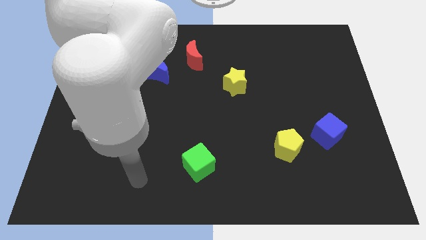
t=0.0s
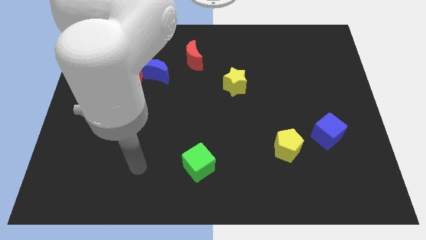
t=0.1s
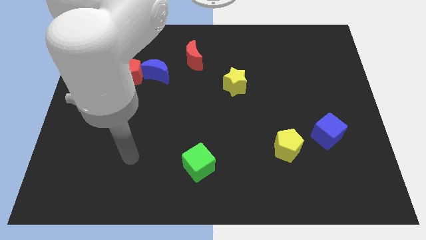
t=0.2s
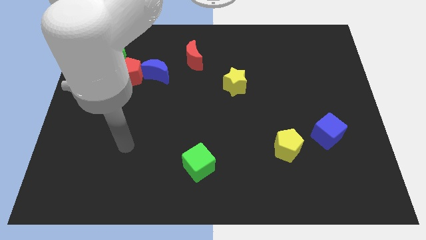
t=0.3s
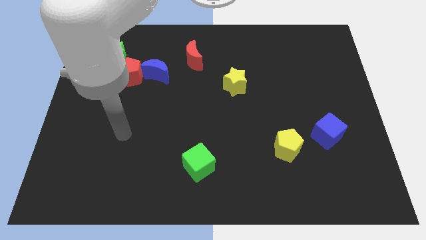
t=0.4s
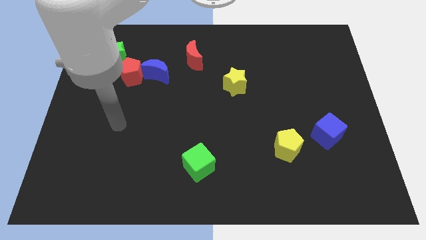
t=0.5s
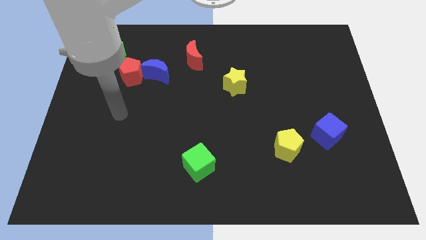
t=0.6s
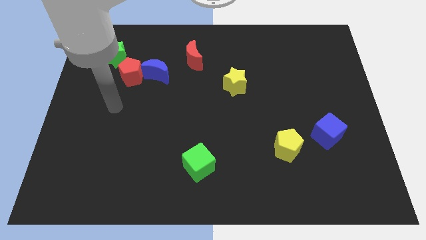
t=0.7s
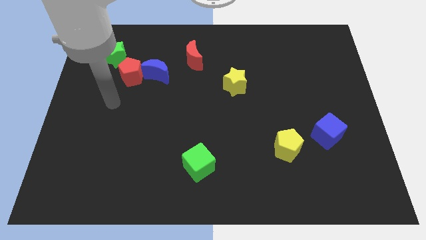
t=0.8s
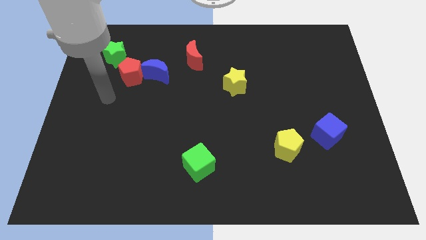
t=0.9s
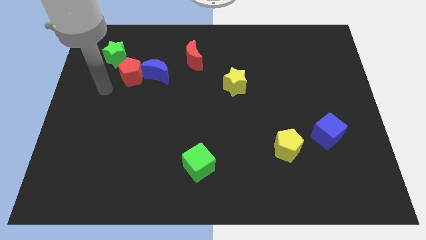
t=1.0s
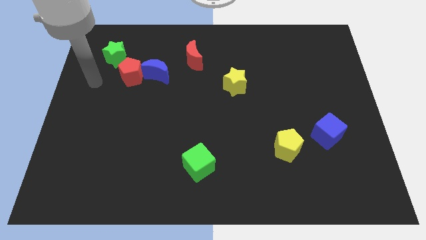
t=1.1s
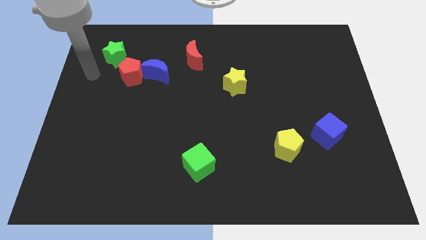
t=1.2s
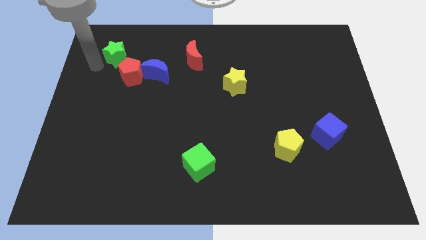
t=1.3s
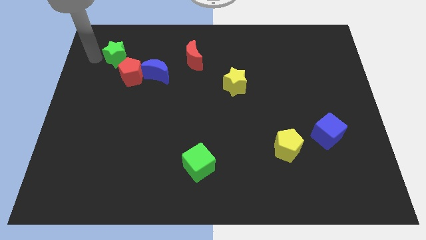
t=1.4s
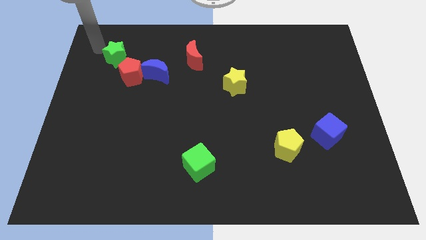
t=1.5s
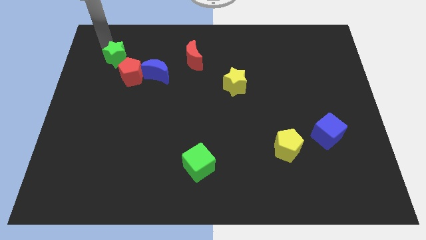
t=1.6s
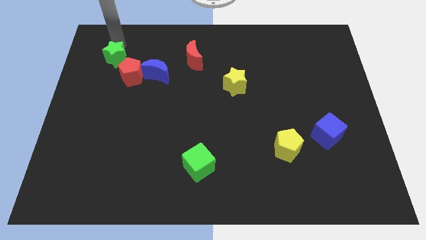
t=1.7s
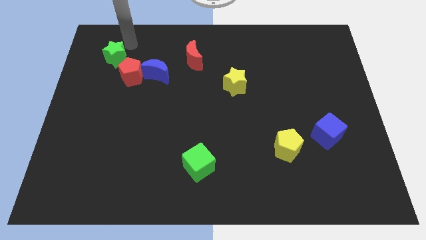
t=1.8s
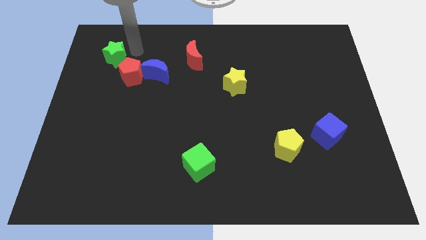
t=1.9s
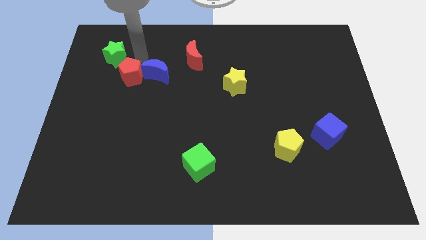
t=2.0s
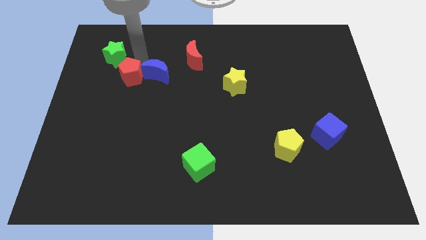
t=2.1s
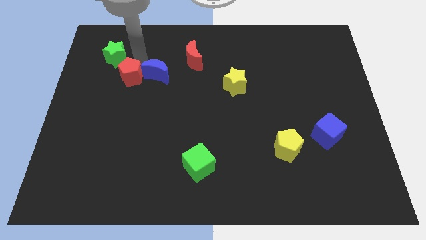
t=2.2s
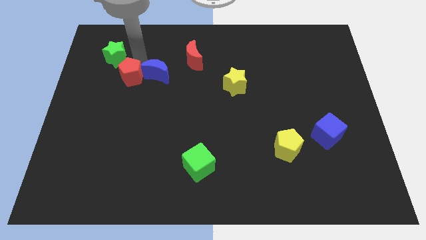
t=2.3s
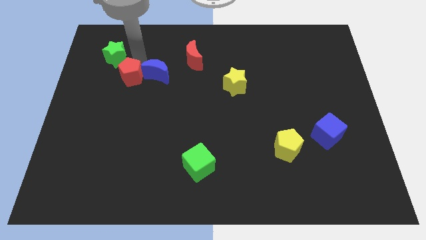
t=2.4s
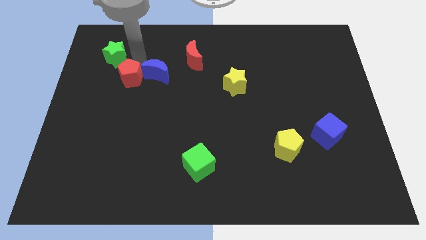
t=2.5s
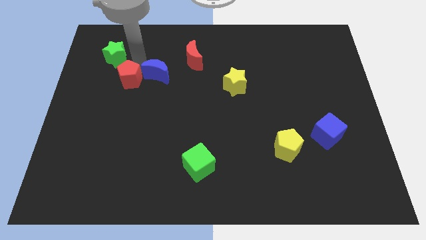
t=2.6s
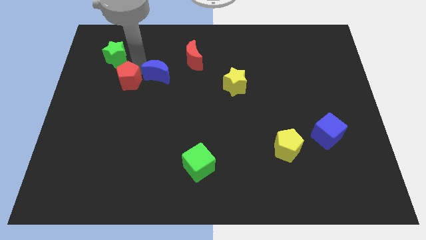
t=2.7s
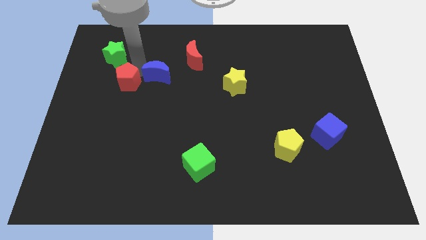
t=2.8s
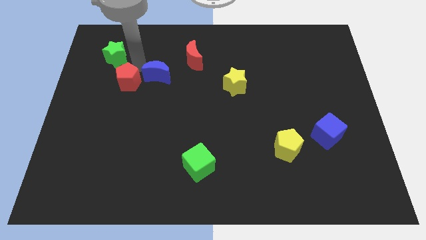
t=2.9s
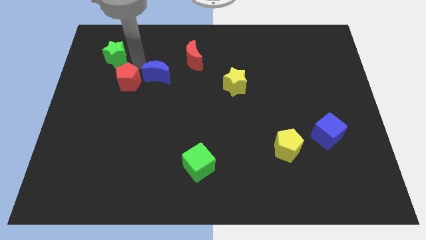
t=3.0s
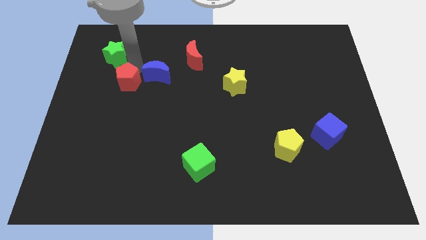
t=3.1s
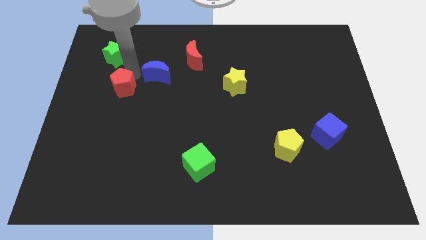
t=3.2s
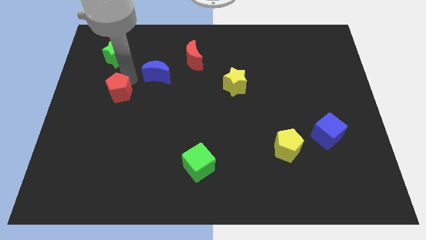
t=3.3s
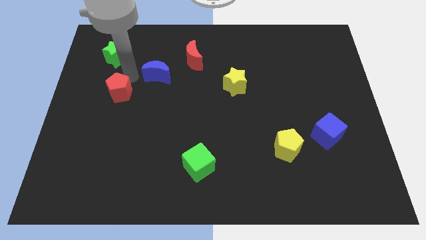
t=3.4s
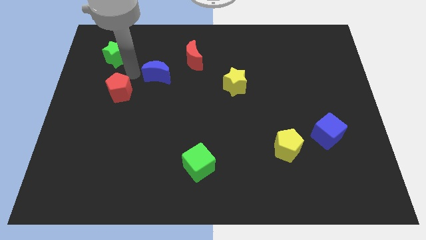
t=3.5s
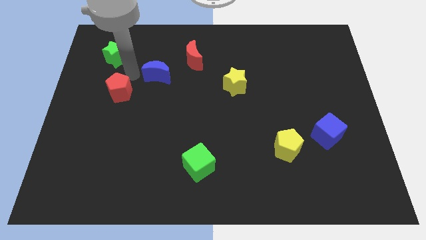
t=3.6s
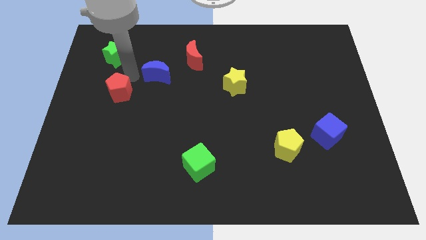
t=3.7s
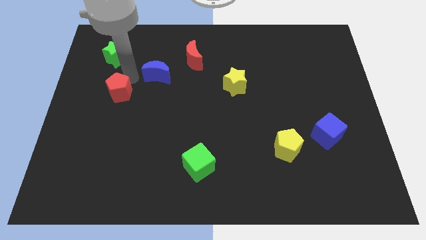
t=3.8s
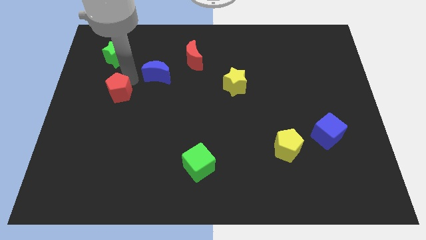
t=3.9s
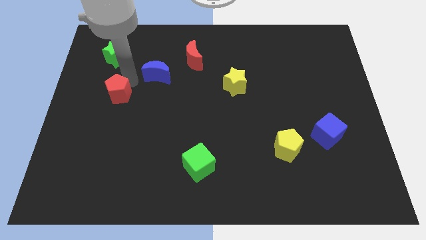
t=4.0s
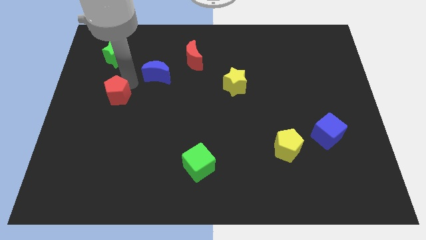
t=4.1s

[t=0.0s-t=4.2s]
move the red pentagon away from the blue moon and green star

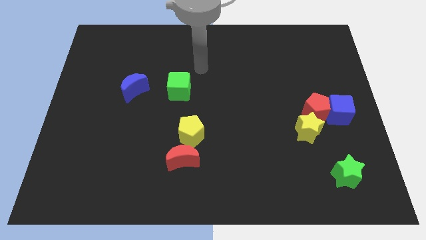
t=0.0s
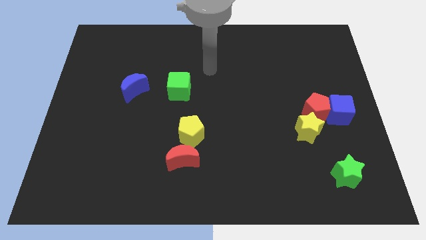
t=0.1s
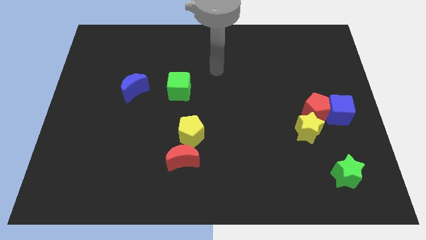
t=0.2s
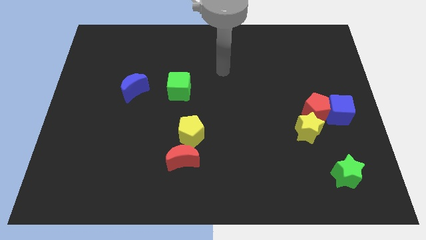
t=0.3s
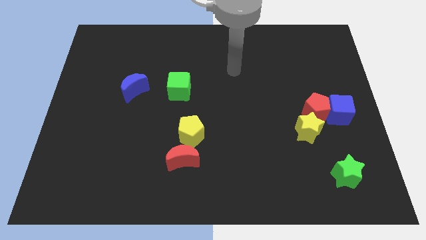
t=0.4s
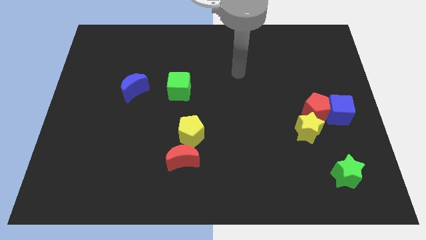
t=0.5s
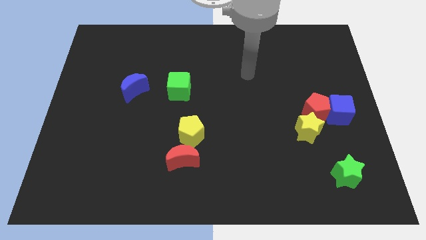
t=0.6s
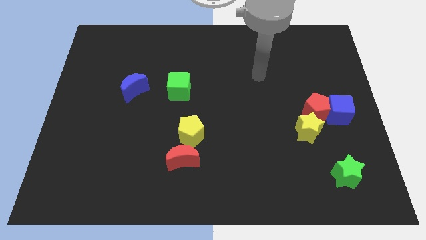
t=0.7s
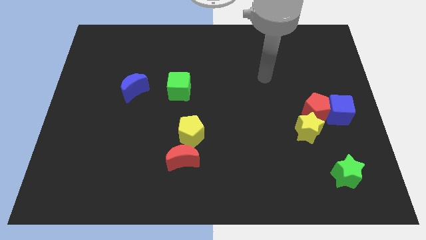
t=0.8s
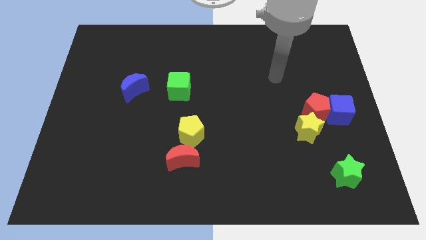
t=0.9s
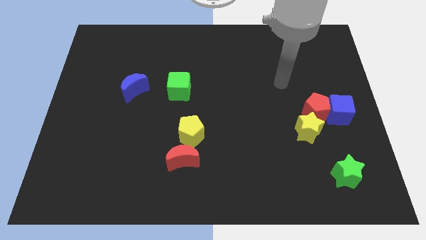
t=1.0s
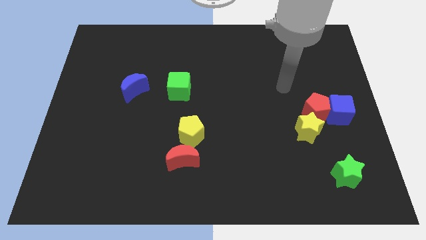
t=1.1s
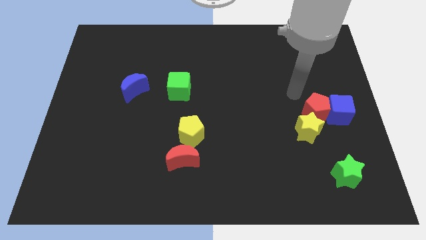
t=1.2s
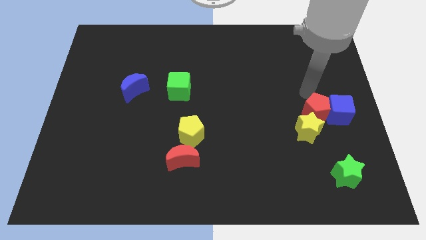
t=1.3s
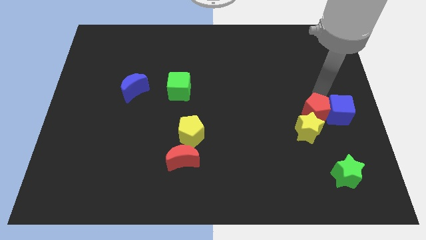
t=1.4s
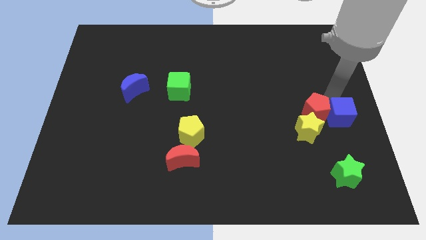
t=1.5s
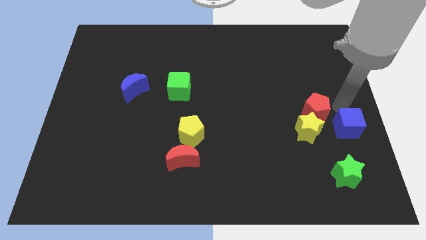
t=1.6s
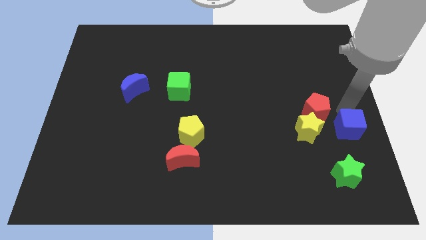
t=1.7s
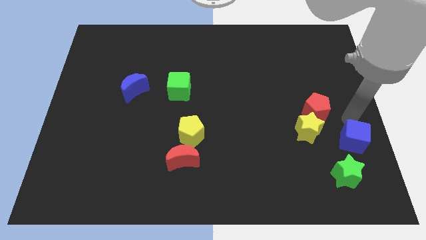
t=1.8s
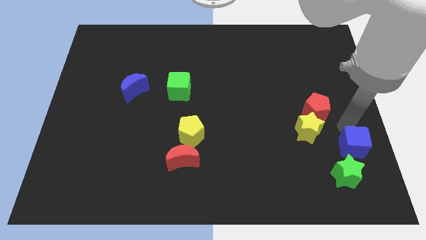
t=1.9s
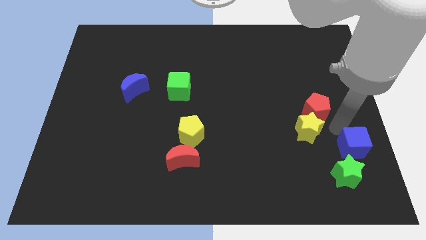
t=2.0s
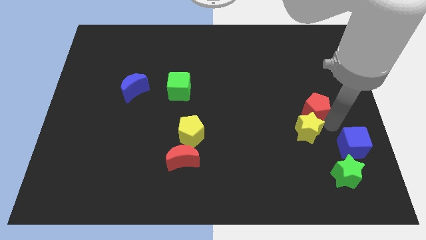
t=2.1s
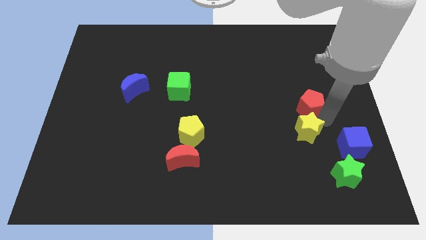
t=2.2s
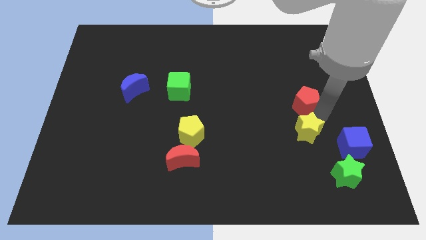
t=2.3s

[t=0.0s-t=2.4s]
pull the red pentagon apart from the blue cube and yellow star

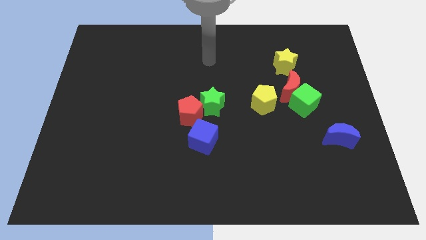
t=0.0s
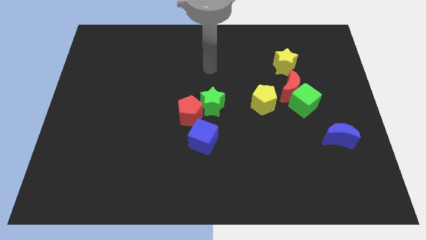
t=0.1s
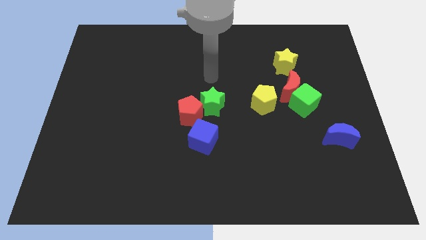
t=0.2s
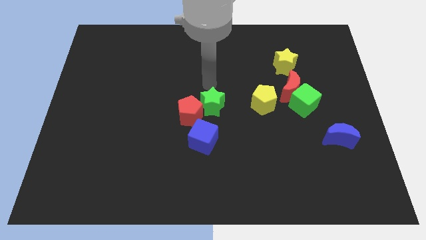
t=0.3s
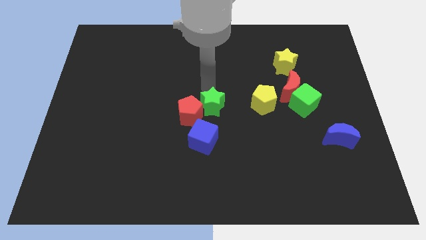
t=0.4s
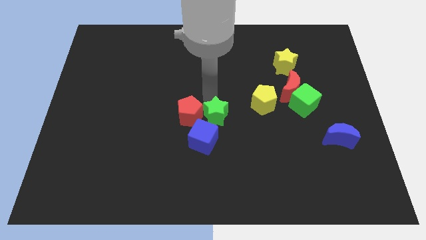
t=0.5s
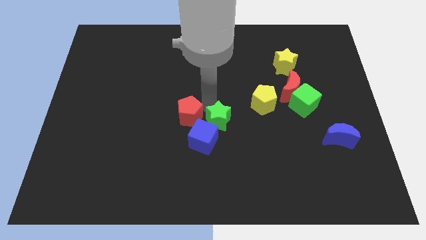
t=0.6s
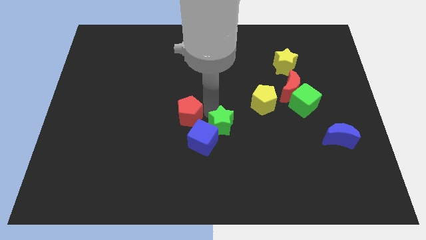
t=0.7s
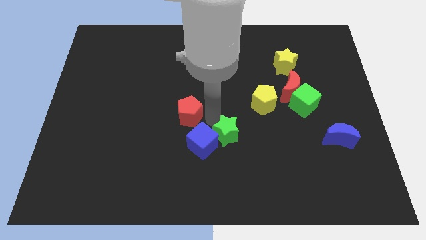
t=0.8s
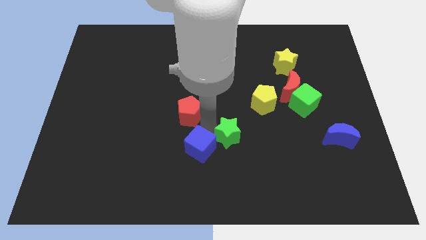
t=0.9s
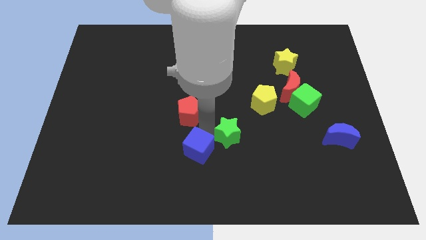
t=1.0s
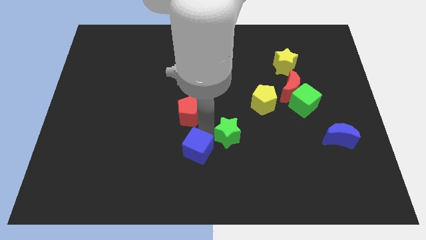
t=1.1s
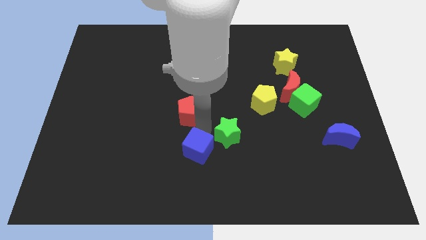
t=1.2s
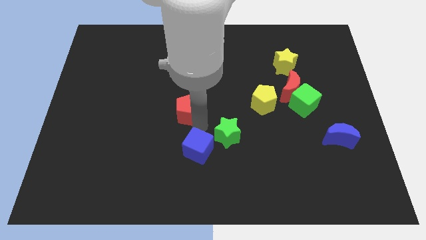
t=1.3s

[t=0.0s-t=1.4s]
pull the red pentagon apart from the green star and blue cube

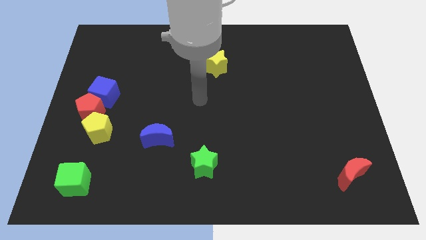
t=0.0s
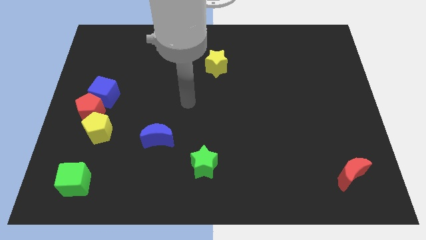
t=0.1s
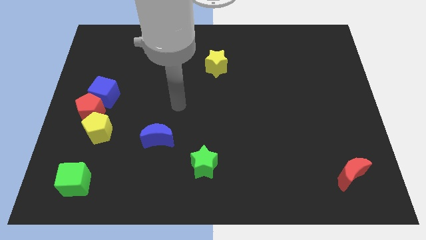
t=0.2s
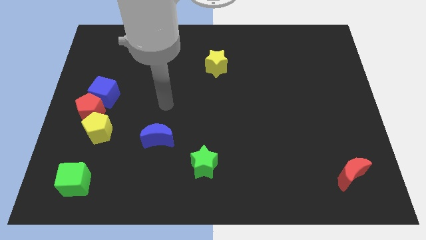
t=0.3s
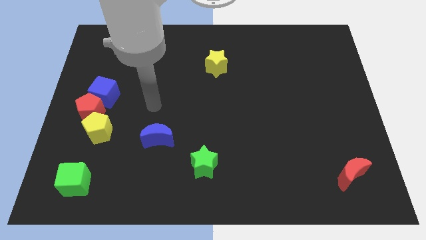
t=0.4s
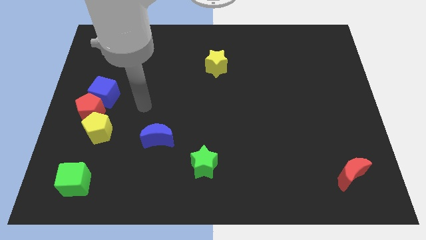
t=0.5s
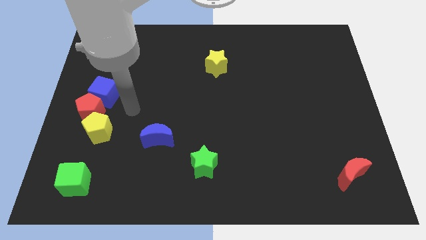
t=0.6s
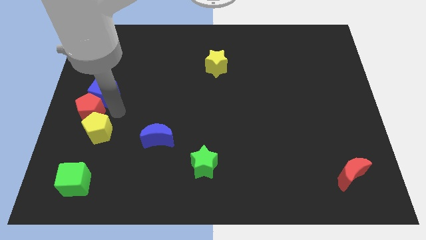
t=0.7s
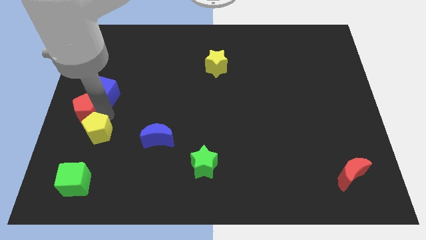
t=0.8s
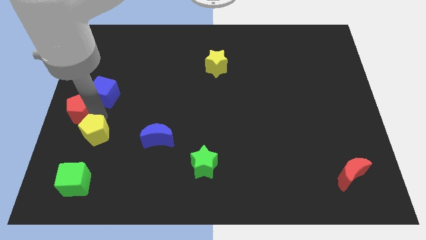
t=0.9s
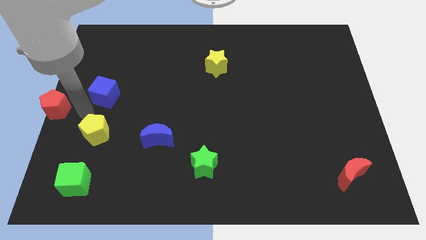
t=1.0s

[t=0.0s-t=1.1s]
separate the blue cube from the red pentagon

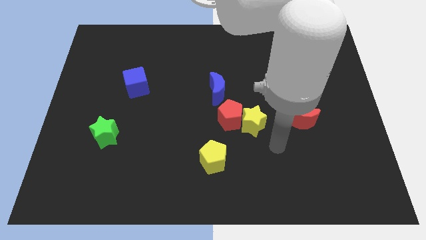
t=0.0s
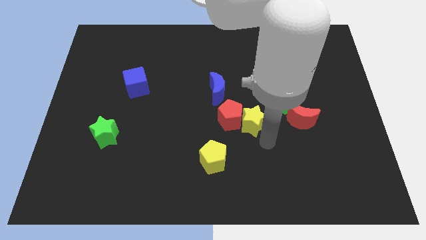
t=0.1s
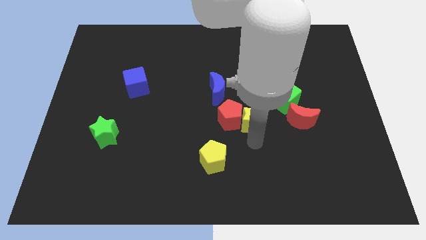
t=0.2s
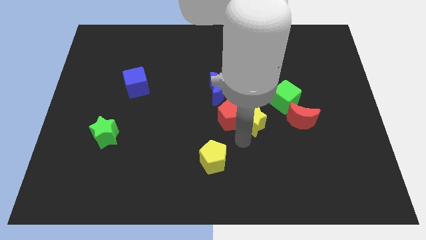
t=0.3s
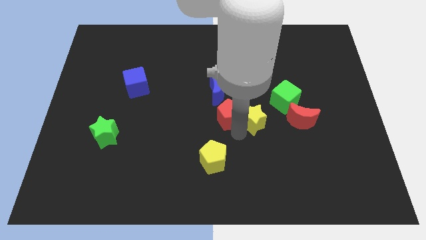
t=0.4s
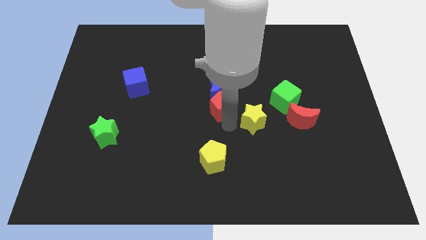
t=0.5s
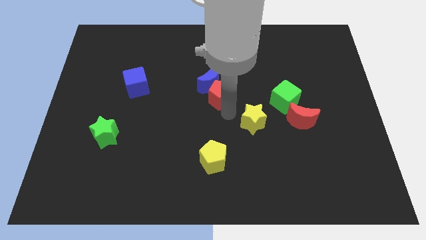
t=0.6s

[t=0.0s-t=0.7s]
pull the yellow star apart from the red pentagon
